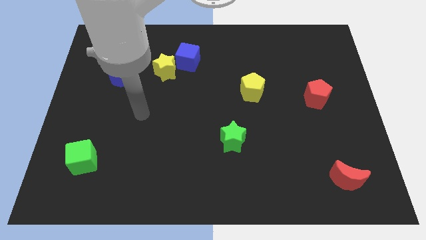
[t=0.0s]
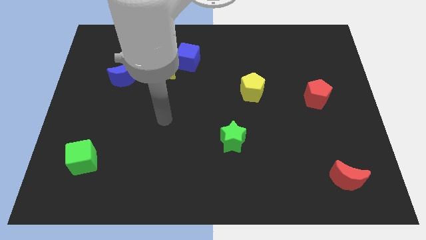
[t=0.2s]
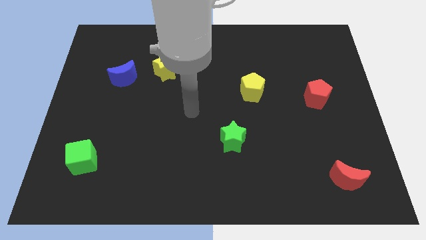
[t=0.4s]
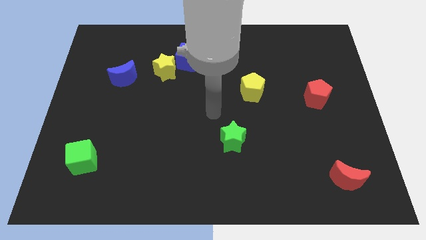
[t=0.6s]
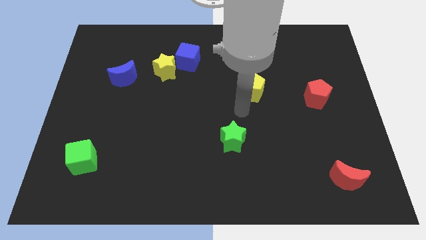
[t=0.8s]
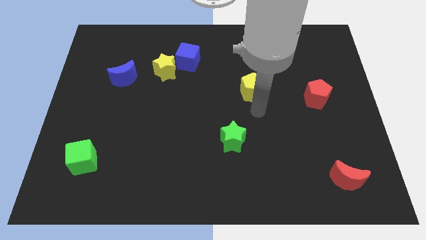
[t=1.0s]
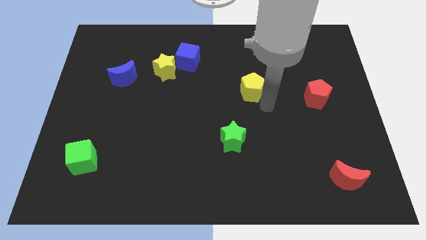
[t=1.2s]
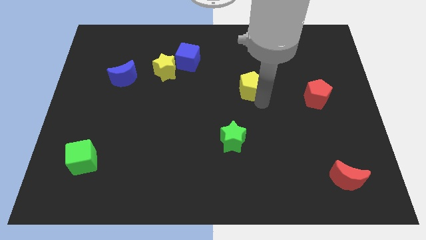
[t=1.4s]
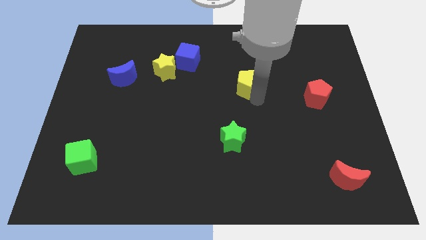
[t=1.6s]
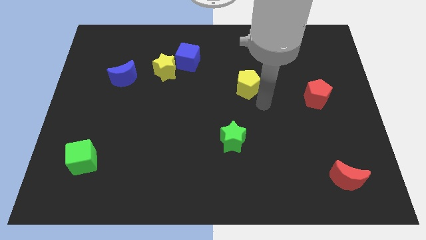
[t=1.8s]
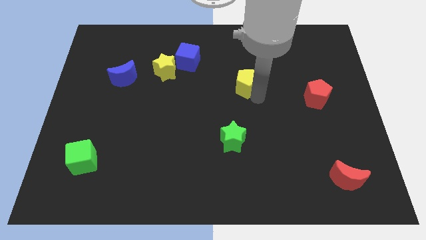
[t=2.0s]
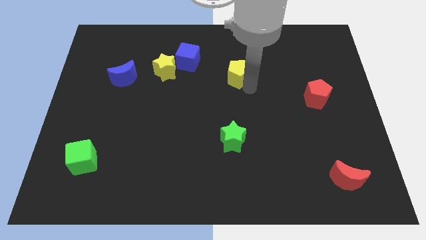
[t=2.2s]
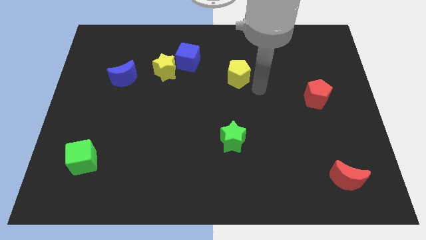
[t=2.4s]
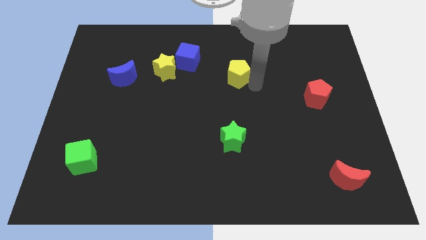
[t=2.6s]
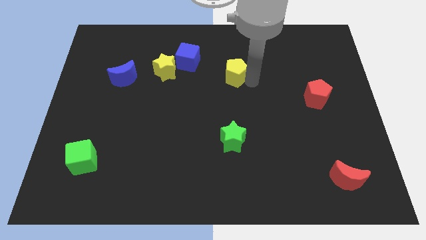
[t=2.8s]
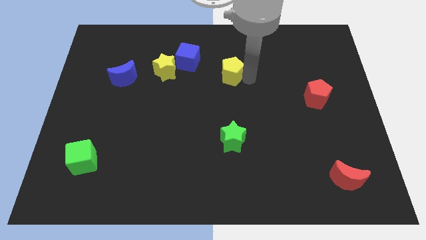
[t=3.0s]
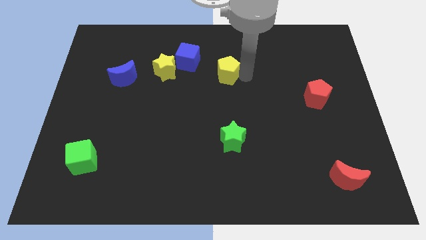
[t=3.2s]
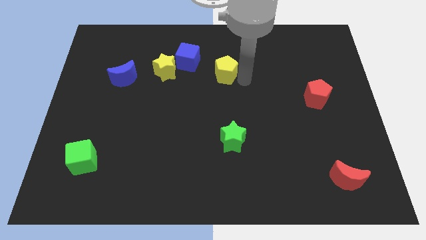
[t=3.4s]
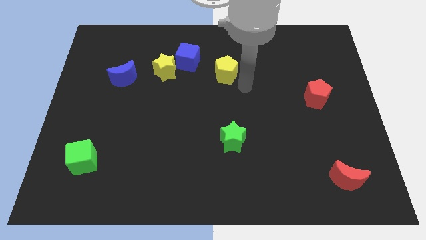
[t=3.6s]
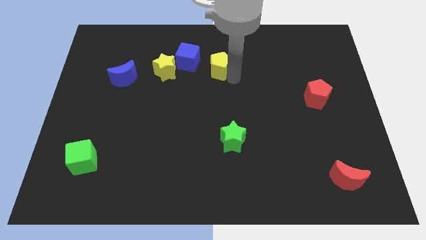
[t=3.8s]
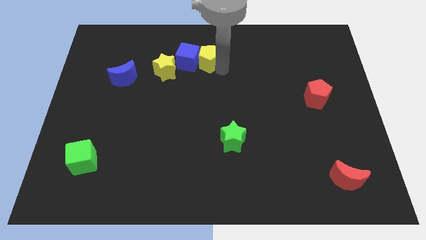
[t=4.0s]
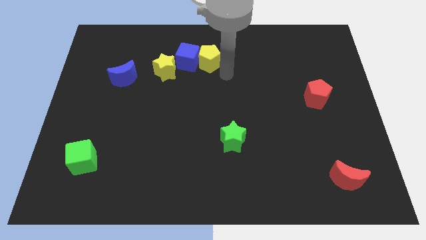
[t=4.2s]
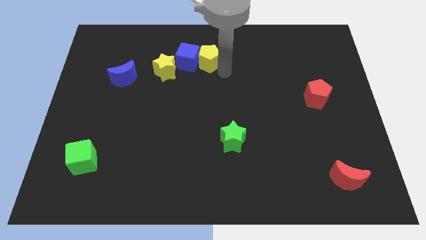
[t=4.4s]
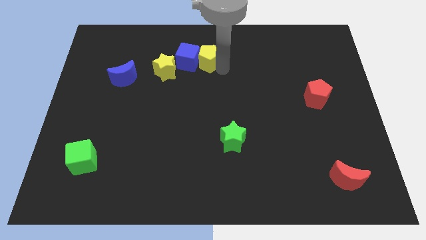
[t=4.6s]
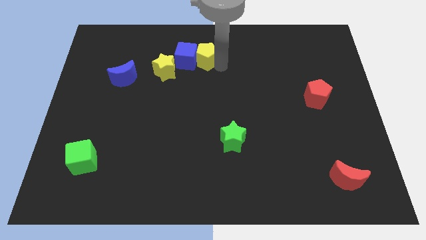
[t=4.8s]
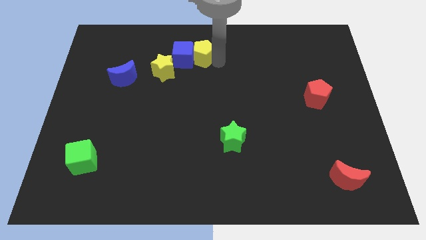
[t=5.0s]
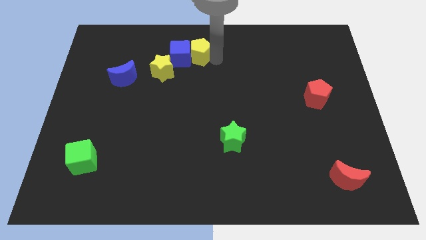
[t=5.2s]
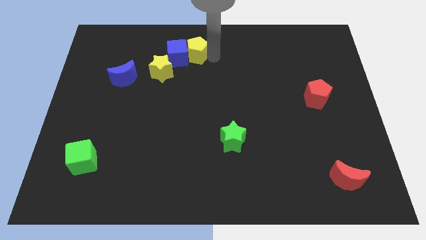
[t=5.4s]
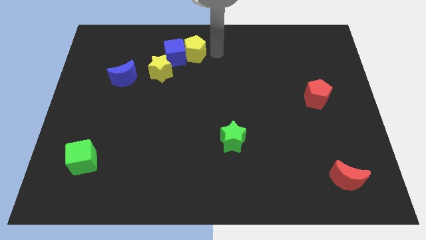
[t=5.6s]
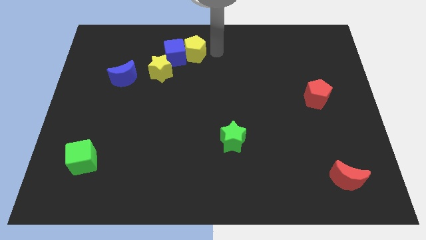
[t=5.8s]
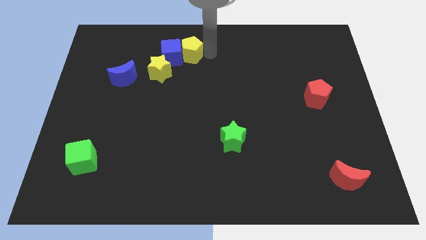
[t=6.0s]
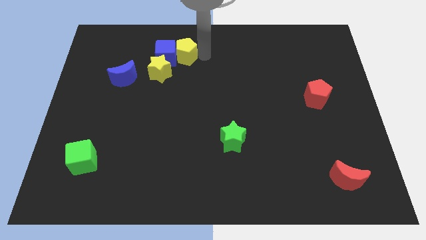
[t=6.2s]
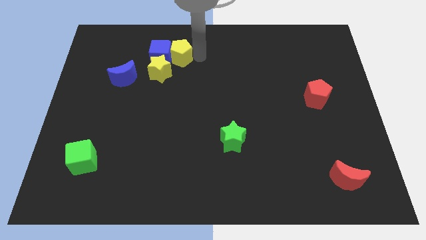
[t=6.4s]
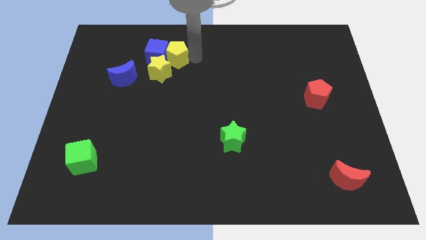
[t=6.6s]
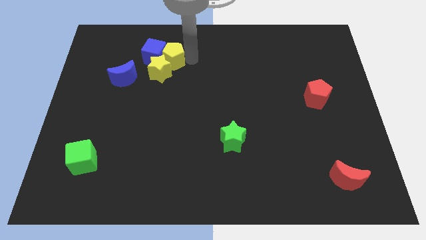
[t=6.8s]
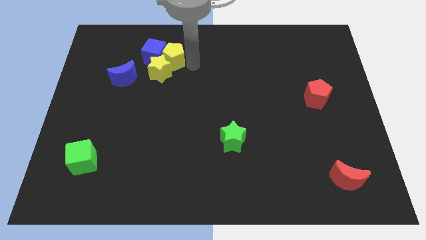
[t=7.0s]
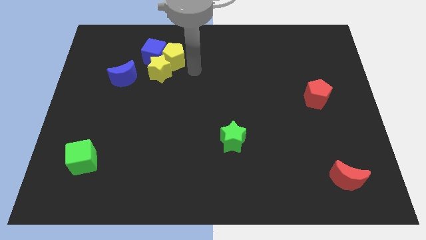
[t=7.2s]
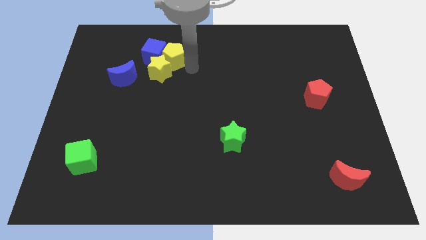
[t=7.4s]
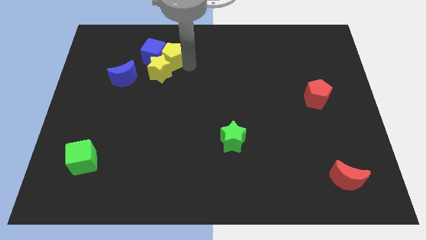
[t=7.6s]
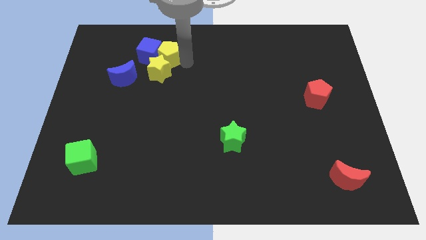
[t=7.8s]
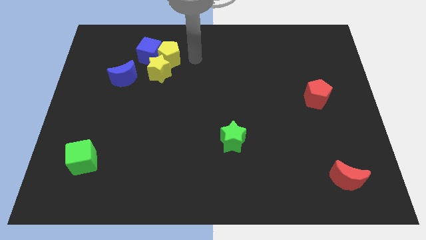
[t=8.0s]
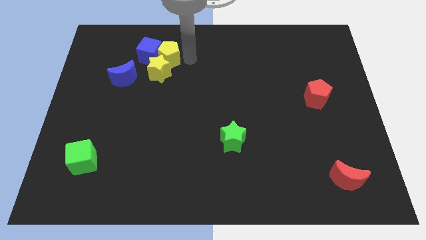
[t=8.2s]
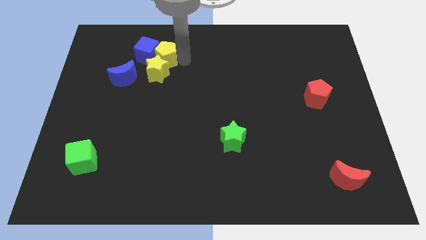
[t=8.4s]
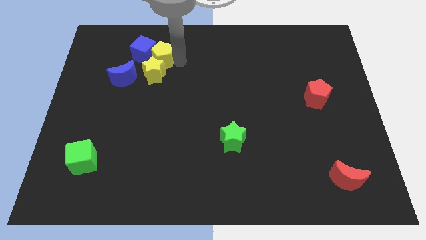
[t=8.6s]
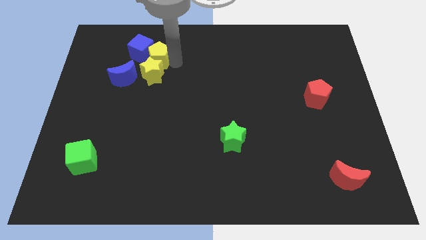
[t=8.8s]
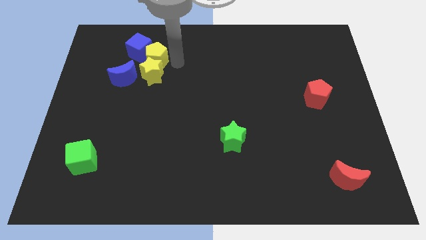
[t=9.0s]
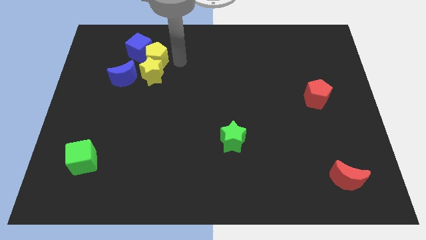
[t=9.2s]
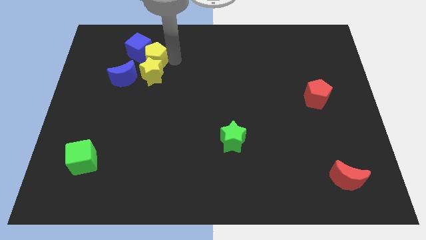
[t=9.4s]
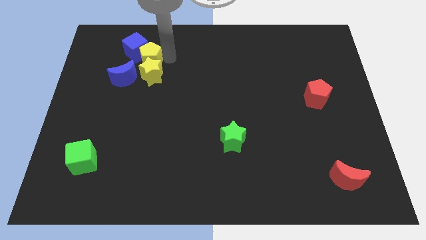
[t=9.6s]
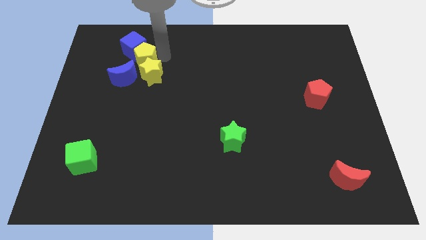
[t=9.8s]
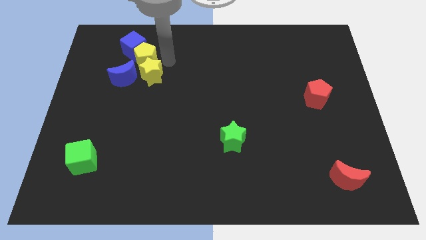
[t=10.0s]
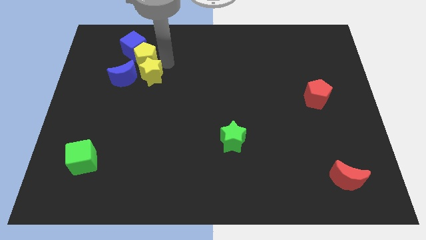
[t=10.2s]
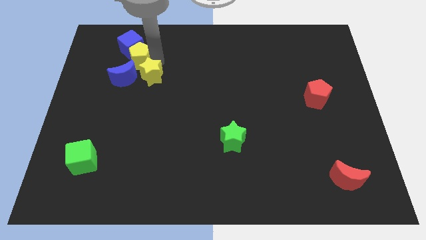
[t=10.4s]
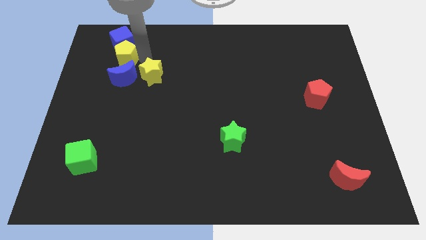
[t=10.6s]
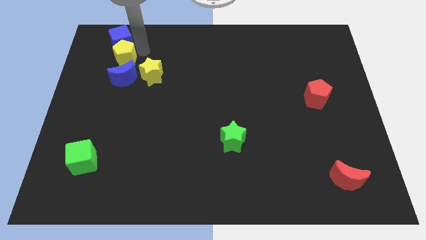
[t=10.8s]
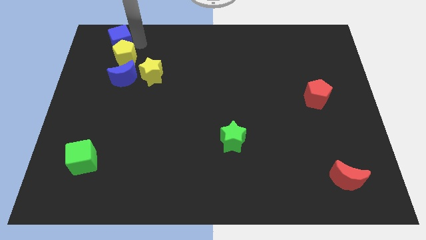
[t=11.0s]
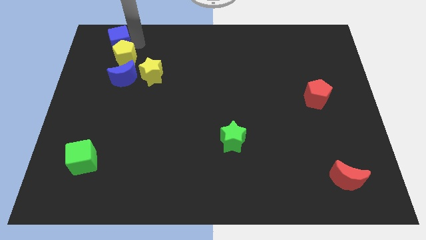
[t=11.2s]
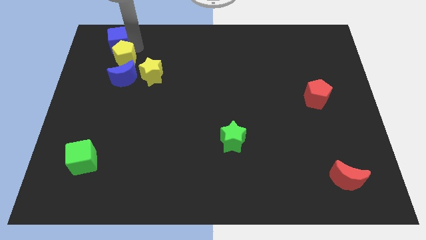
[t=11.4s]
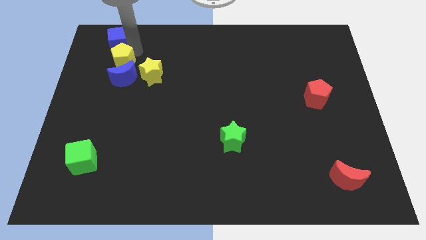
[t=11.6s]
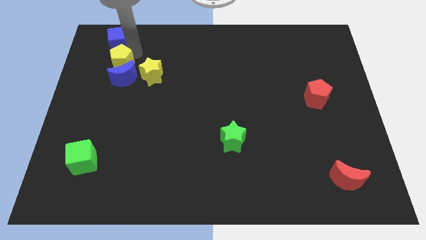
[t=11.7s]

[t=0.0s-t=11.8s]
push the yellow pentagon to the left of the yellow star
